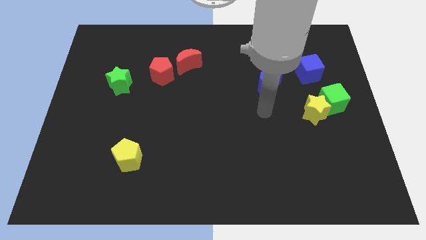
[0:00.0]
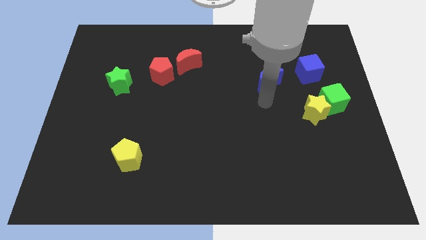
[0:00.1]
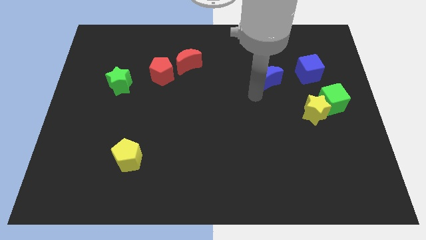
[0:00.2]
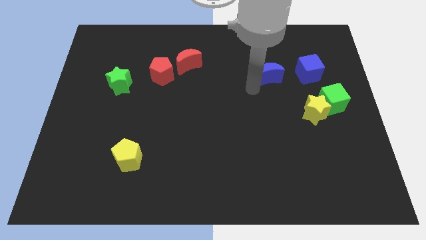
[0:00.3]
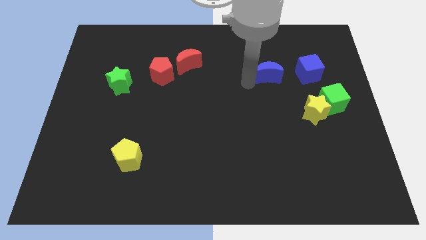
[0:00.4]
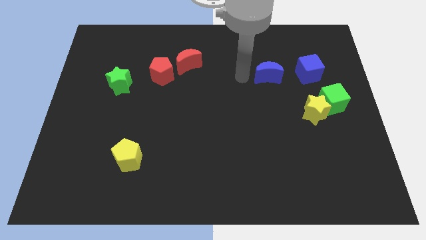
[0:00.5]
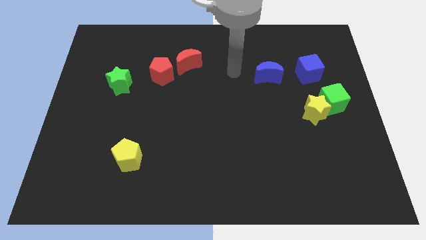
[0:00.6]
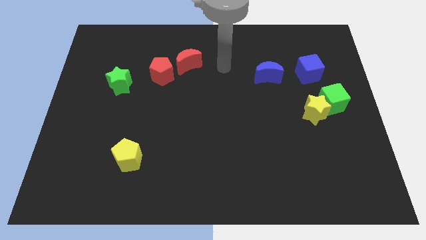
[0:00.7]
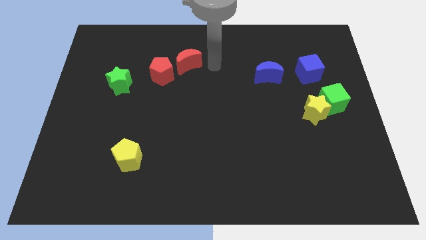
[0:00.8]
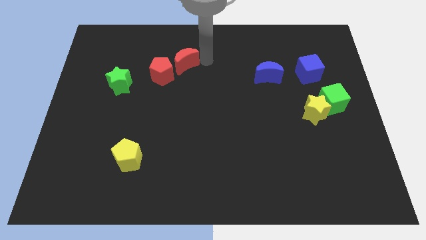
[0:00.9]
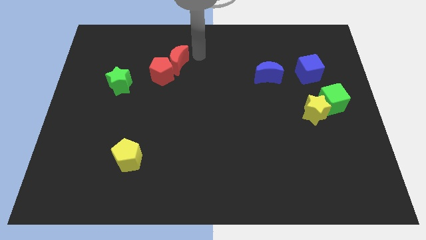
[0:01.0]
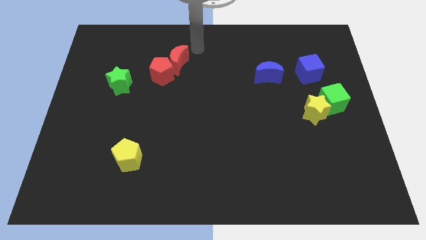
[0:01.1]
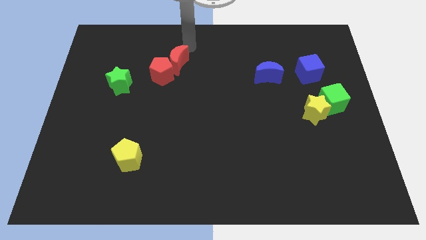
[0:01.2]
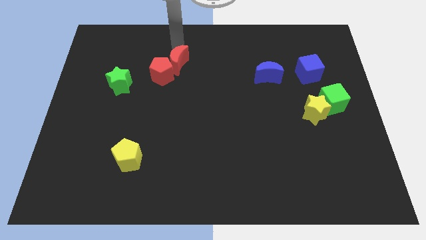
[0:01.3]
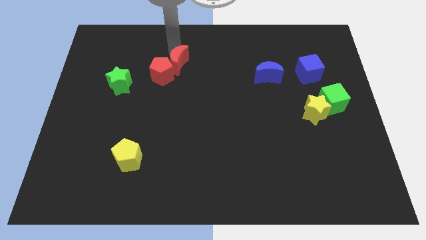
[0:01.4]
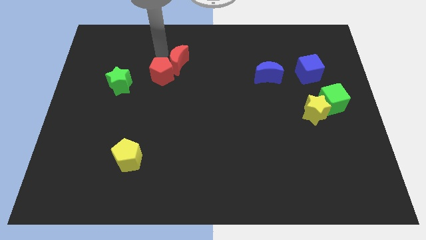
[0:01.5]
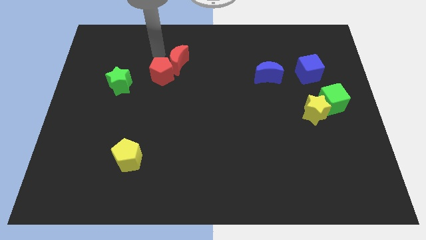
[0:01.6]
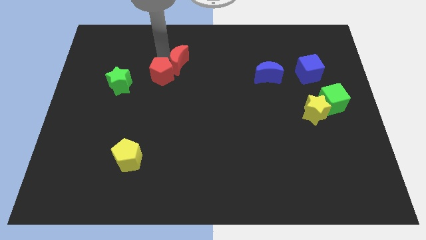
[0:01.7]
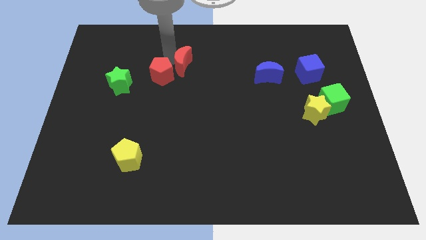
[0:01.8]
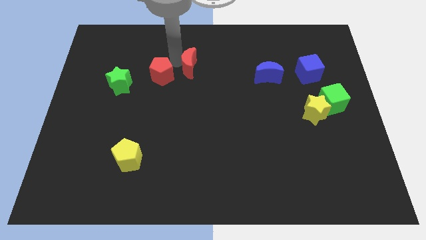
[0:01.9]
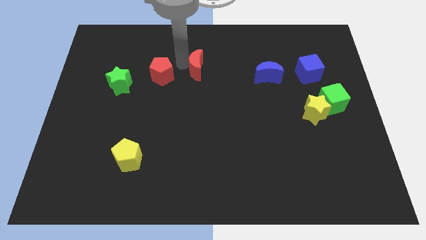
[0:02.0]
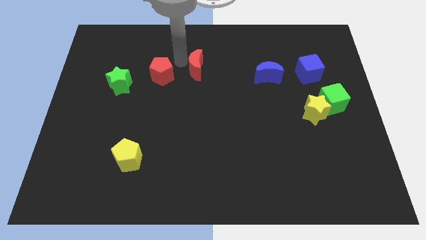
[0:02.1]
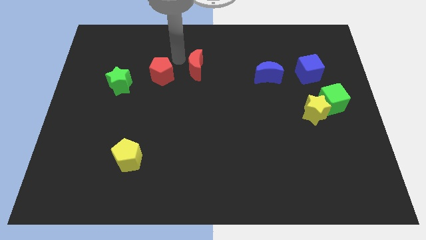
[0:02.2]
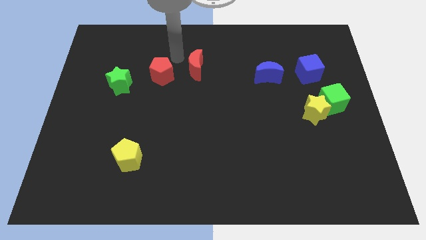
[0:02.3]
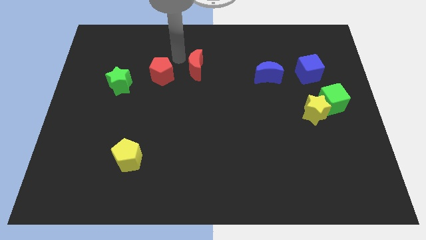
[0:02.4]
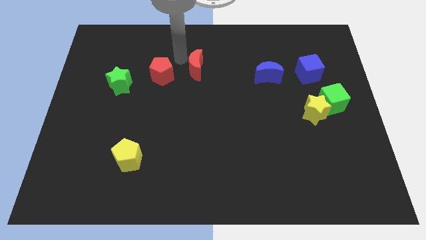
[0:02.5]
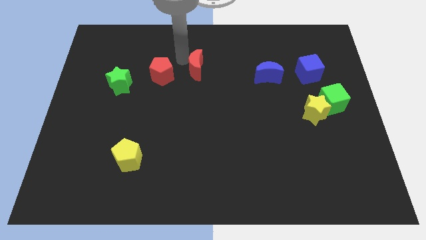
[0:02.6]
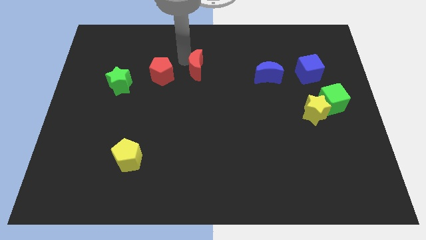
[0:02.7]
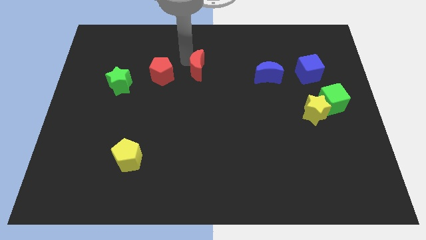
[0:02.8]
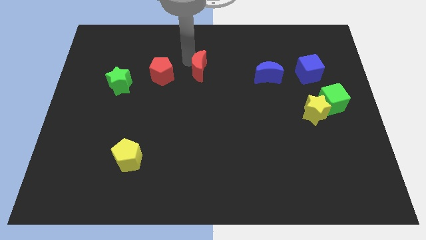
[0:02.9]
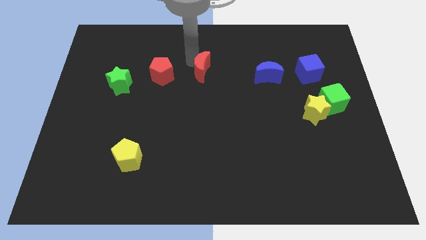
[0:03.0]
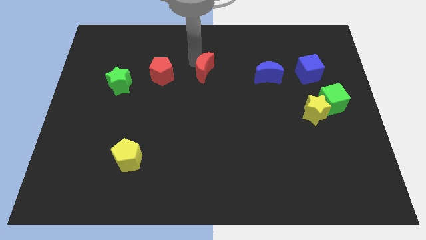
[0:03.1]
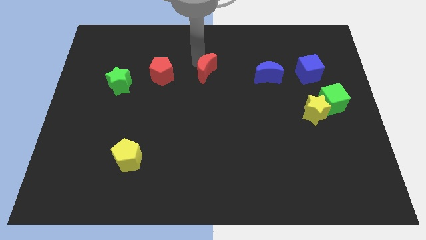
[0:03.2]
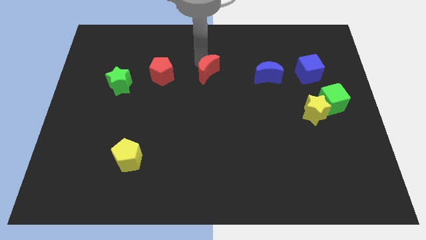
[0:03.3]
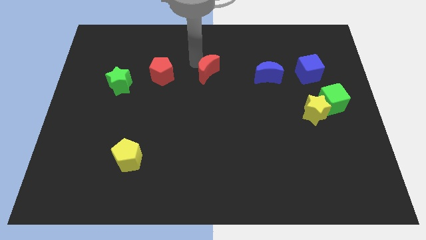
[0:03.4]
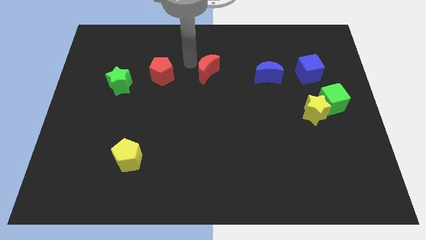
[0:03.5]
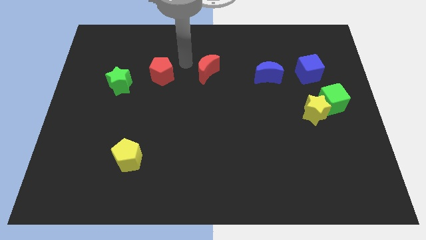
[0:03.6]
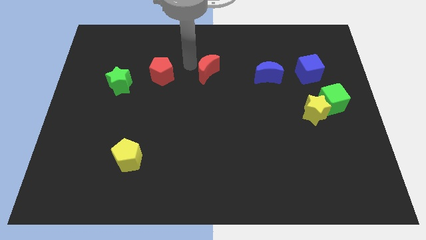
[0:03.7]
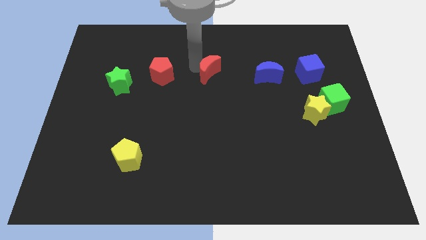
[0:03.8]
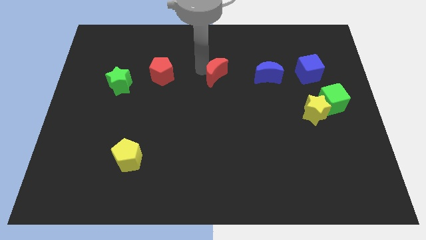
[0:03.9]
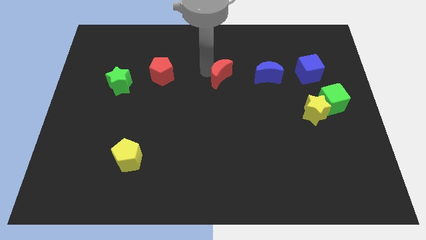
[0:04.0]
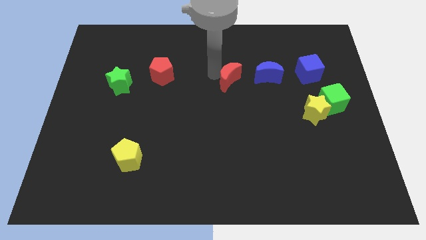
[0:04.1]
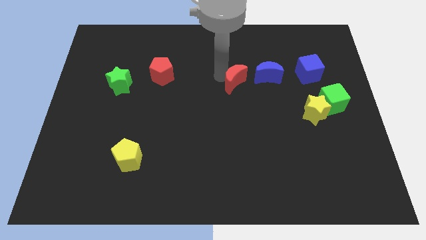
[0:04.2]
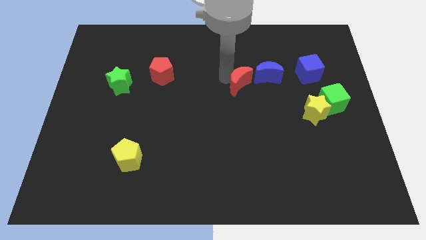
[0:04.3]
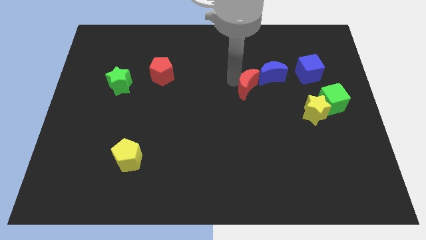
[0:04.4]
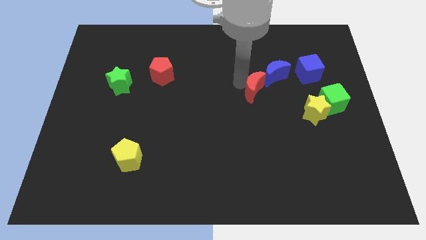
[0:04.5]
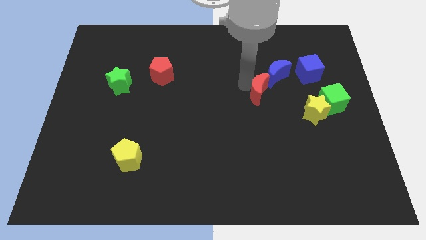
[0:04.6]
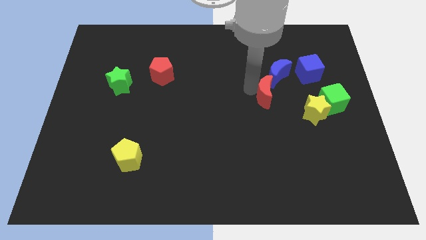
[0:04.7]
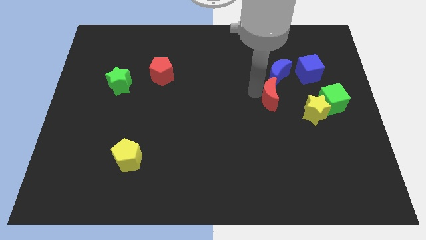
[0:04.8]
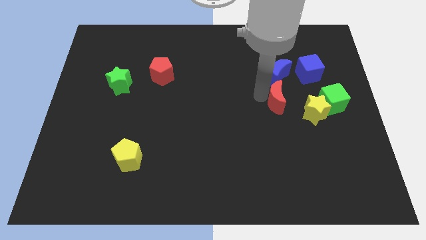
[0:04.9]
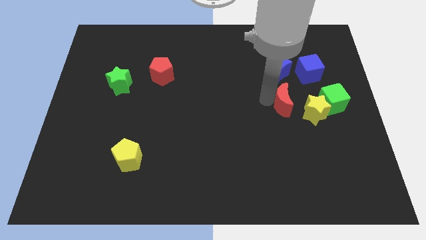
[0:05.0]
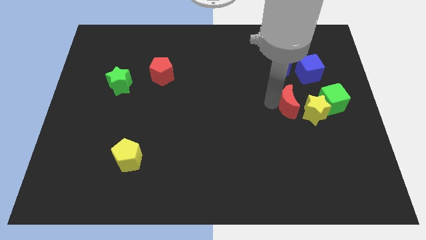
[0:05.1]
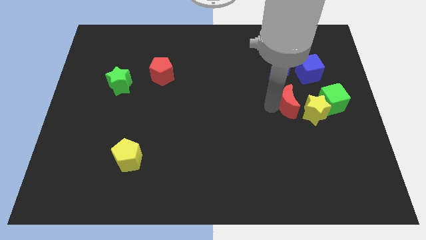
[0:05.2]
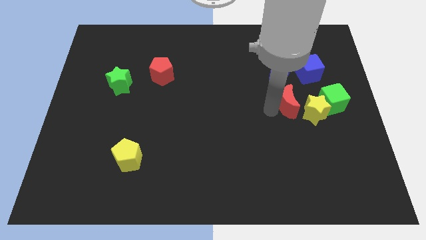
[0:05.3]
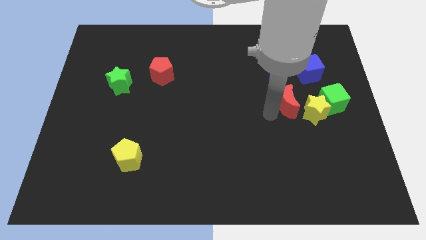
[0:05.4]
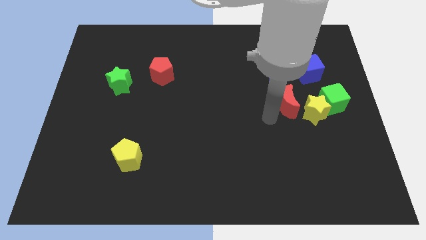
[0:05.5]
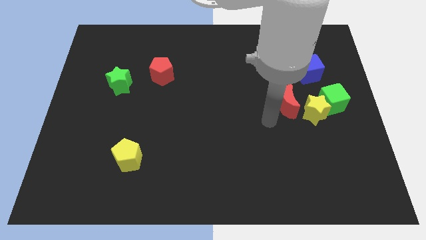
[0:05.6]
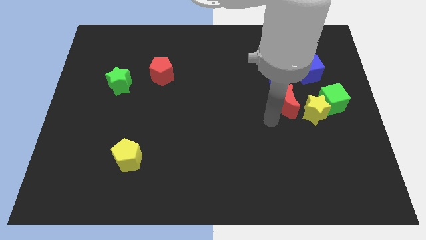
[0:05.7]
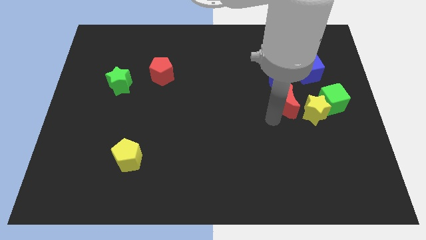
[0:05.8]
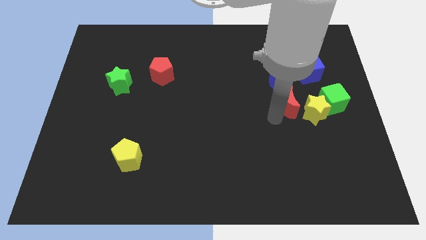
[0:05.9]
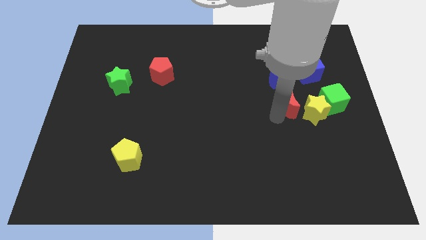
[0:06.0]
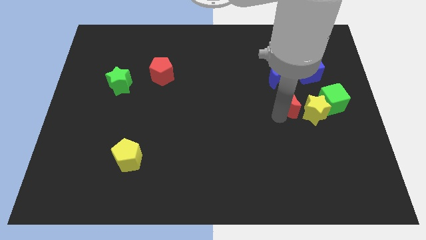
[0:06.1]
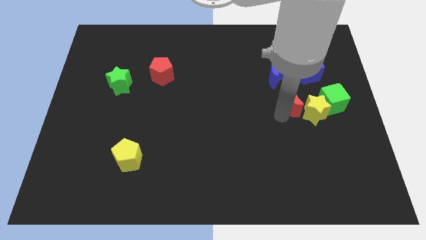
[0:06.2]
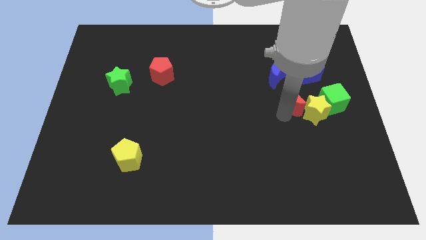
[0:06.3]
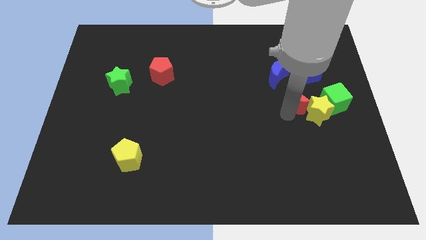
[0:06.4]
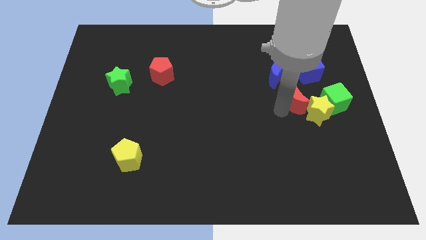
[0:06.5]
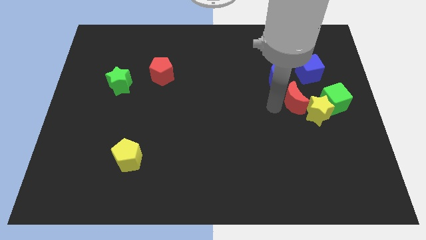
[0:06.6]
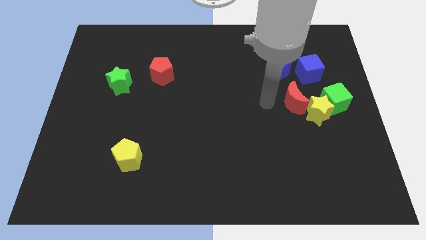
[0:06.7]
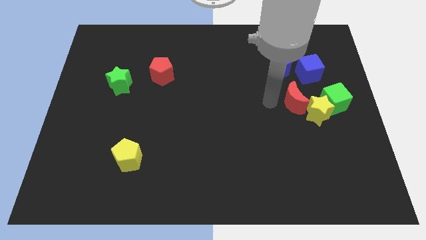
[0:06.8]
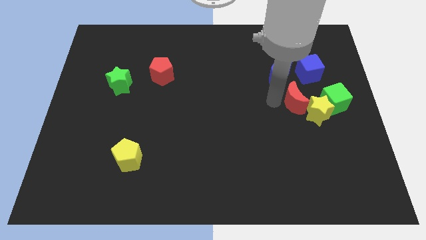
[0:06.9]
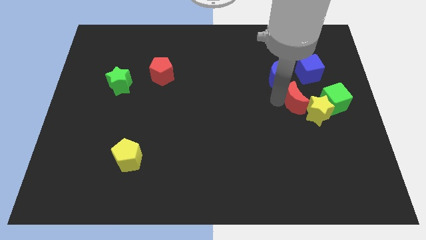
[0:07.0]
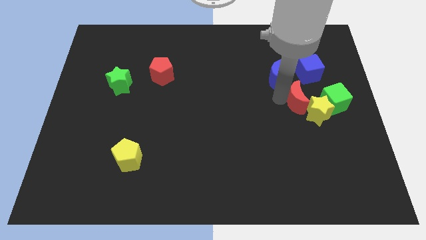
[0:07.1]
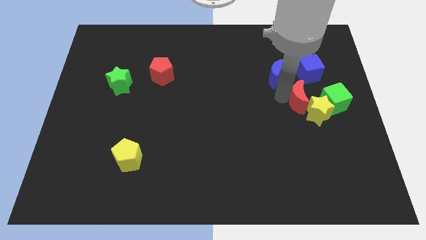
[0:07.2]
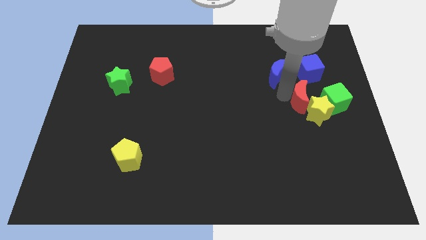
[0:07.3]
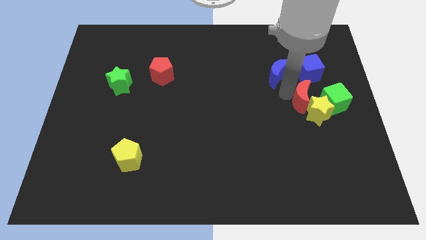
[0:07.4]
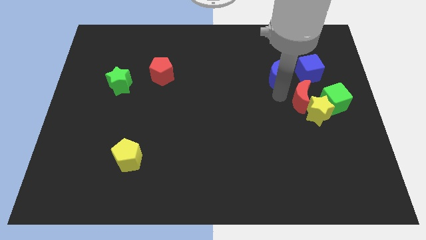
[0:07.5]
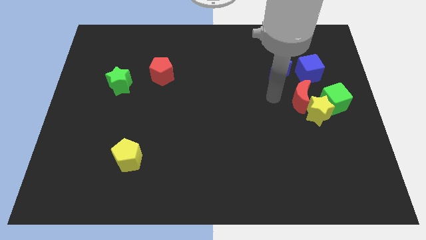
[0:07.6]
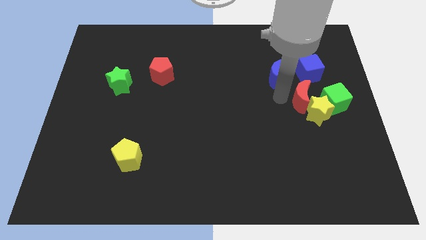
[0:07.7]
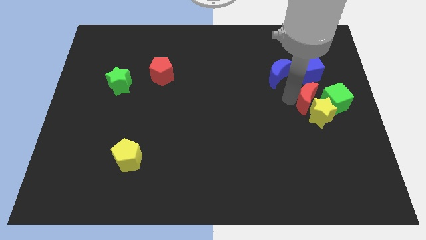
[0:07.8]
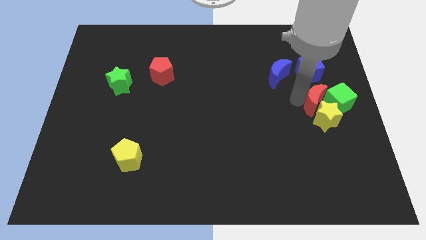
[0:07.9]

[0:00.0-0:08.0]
move the red moon towards the green cube
